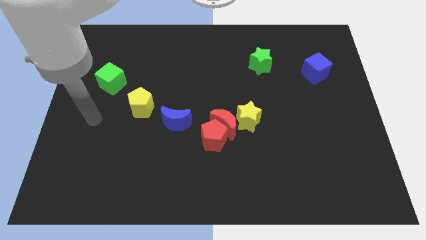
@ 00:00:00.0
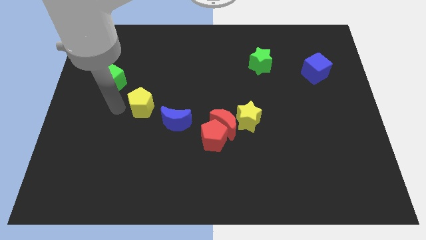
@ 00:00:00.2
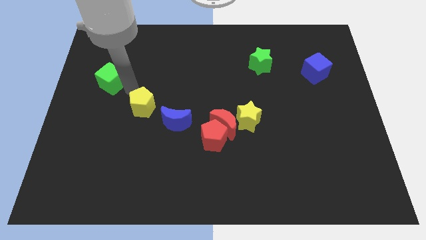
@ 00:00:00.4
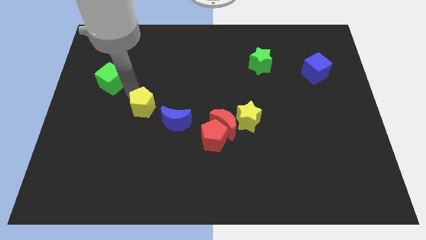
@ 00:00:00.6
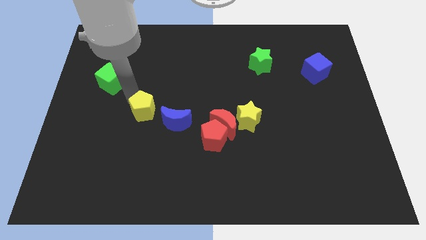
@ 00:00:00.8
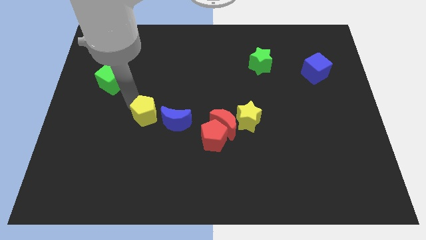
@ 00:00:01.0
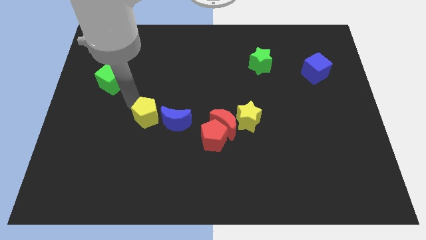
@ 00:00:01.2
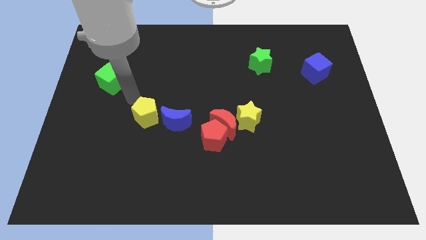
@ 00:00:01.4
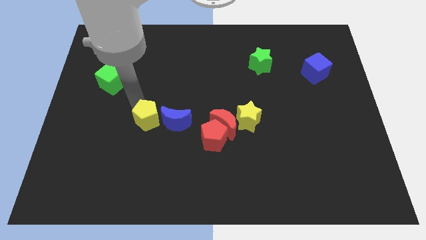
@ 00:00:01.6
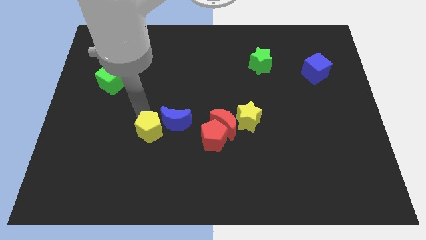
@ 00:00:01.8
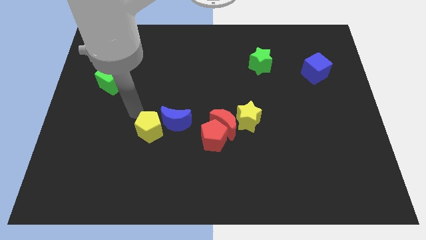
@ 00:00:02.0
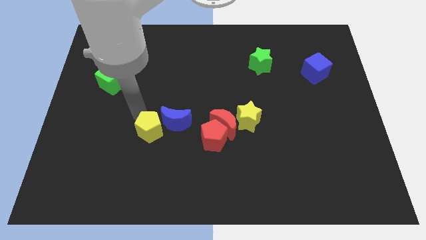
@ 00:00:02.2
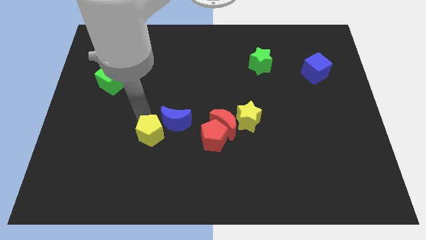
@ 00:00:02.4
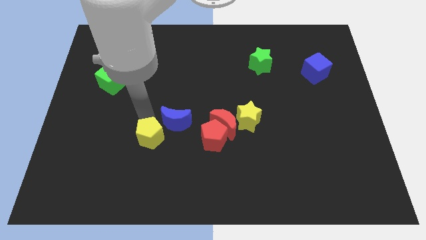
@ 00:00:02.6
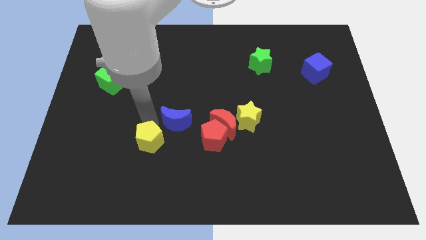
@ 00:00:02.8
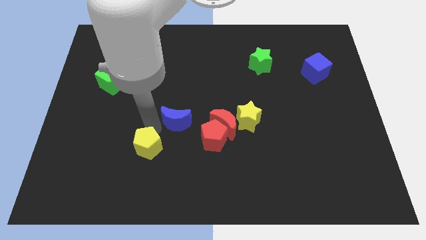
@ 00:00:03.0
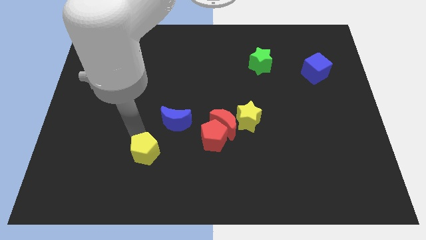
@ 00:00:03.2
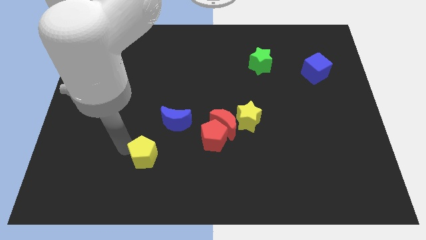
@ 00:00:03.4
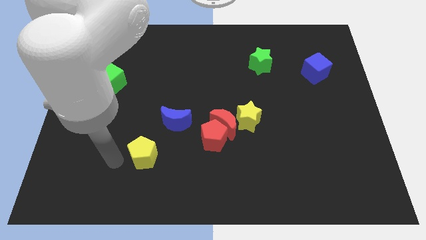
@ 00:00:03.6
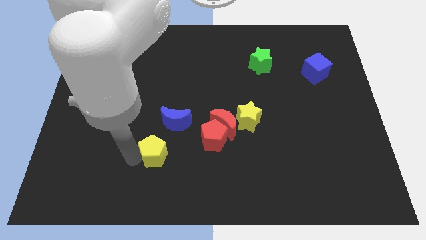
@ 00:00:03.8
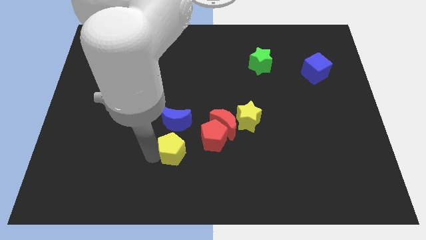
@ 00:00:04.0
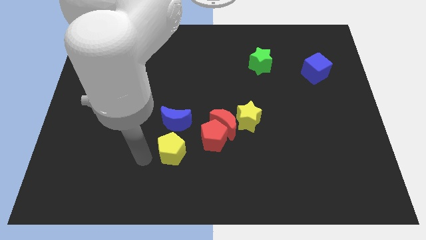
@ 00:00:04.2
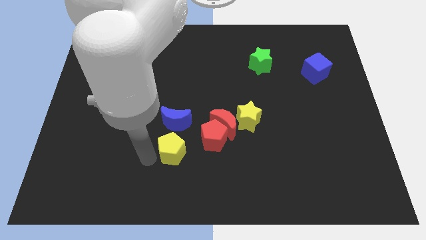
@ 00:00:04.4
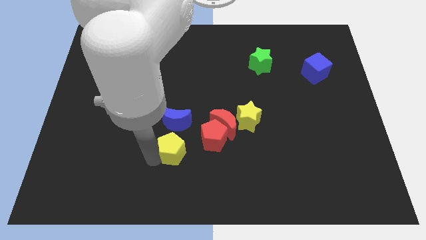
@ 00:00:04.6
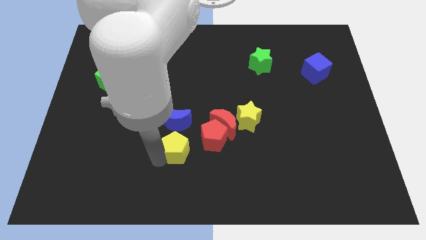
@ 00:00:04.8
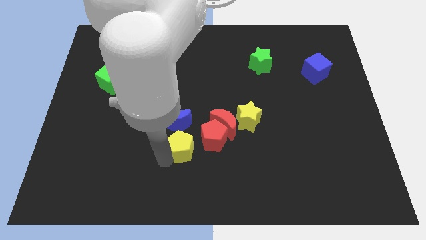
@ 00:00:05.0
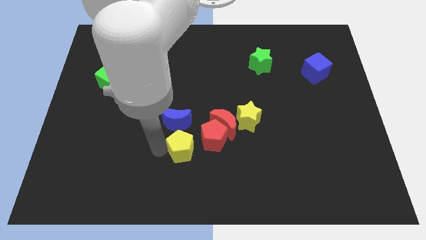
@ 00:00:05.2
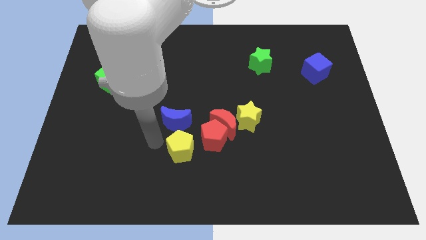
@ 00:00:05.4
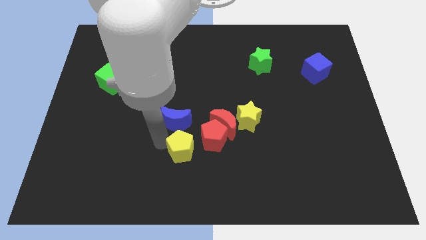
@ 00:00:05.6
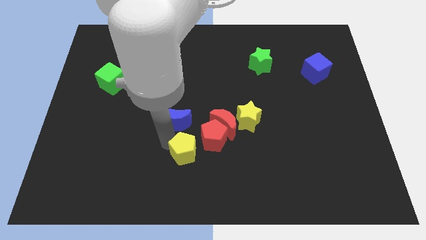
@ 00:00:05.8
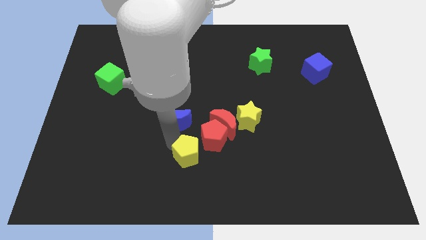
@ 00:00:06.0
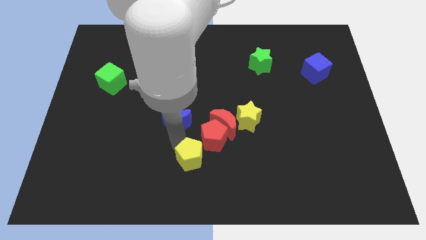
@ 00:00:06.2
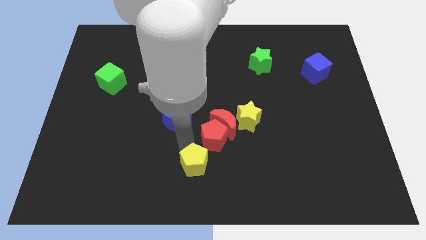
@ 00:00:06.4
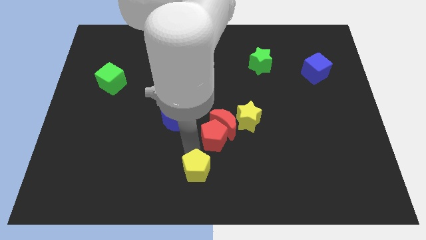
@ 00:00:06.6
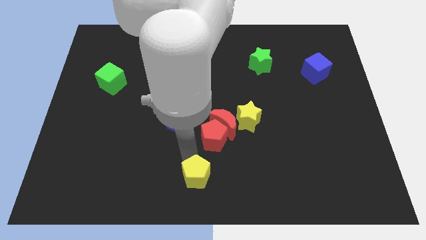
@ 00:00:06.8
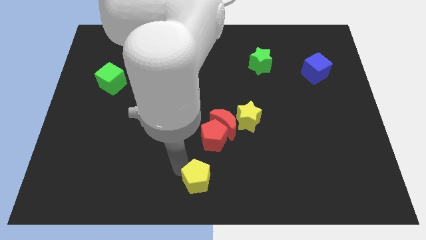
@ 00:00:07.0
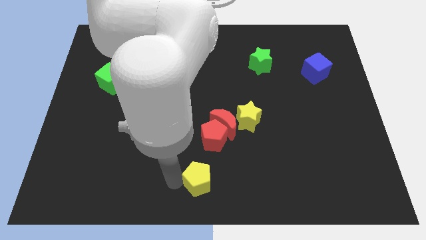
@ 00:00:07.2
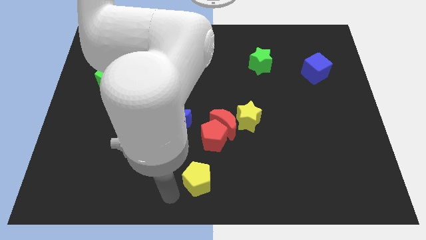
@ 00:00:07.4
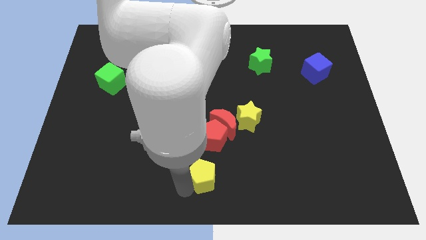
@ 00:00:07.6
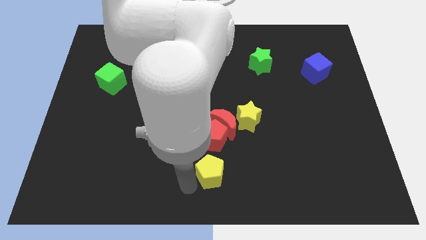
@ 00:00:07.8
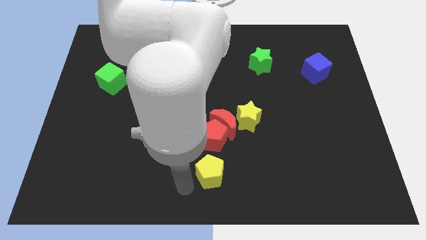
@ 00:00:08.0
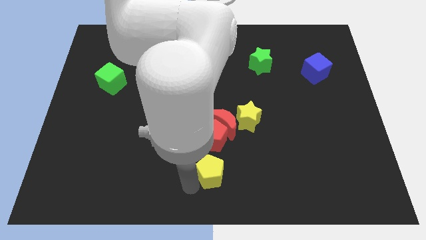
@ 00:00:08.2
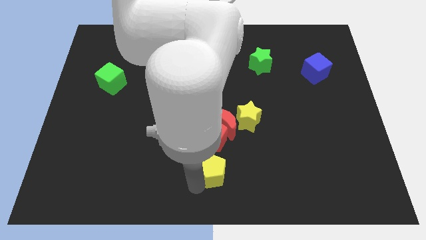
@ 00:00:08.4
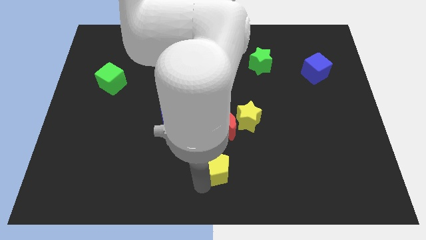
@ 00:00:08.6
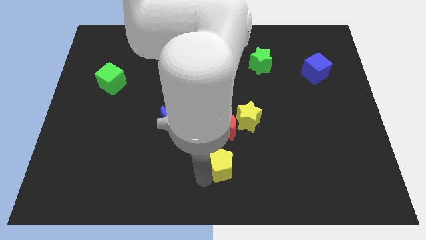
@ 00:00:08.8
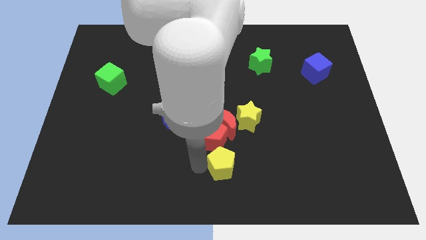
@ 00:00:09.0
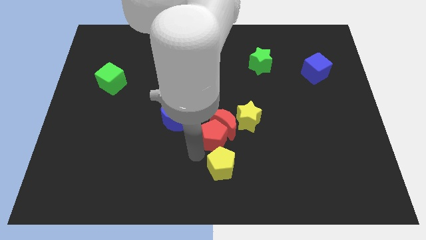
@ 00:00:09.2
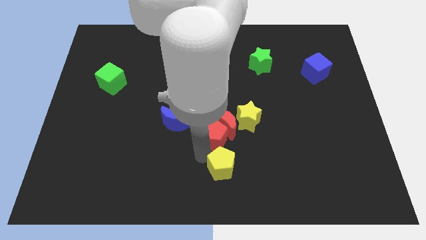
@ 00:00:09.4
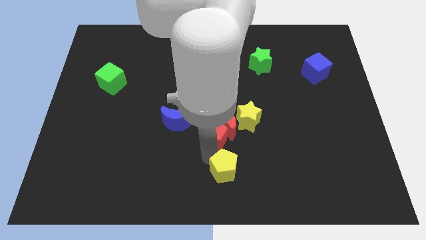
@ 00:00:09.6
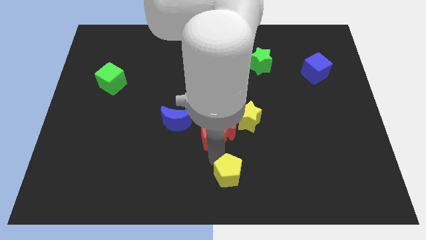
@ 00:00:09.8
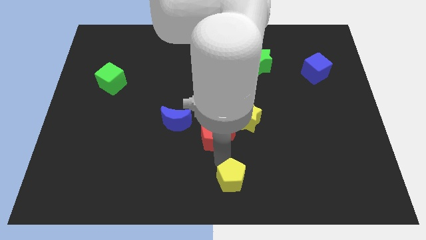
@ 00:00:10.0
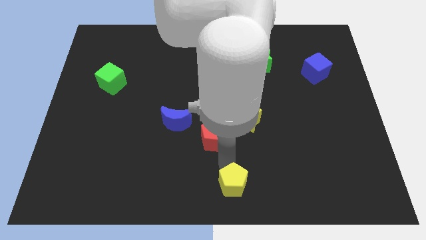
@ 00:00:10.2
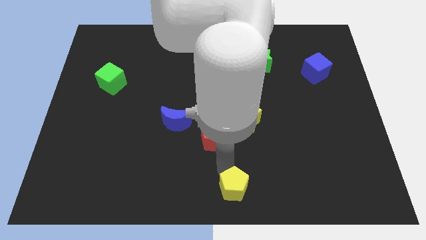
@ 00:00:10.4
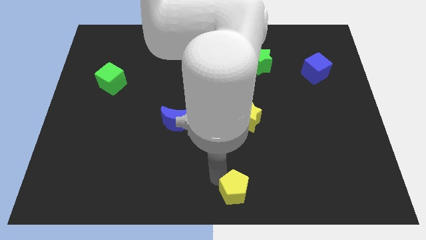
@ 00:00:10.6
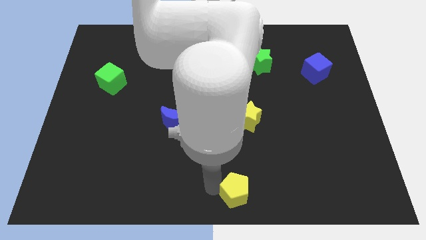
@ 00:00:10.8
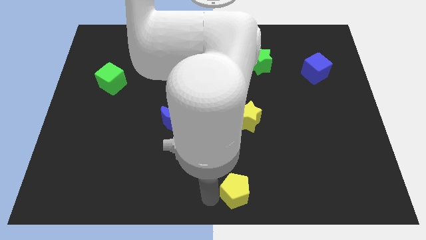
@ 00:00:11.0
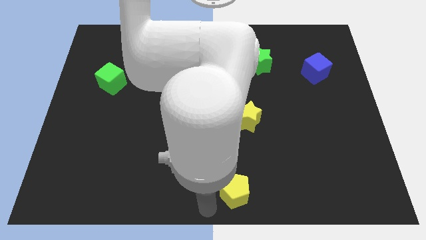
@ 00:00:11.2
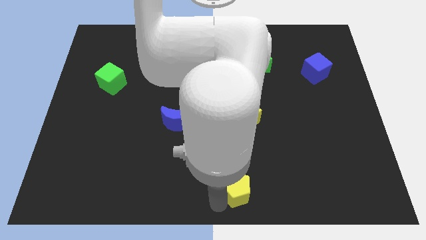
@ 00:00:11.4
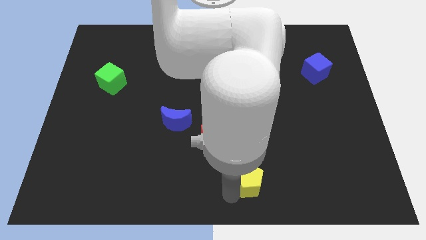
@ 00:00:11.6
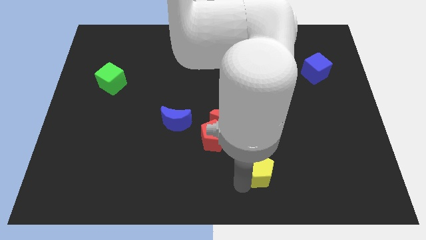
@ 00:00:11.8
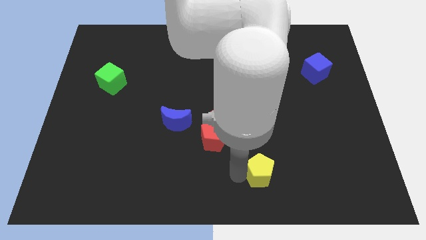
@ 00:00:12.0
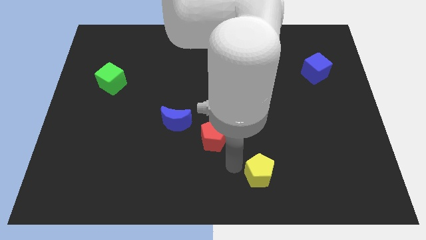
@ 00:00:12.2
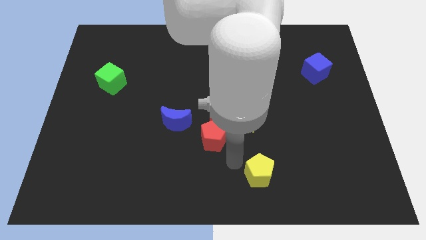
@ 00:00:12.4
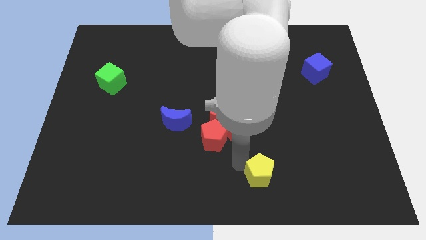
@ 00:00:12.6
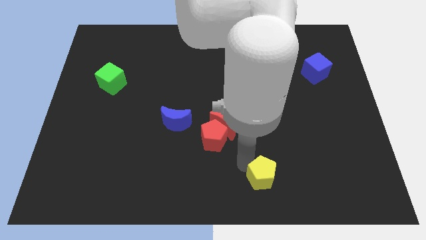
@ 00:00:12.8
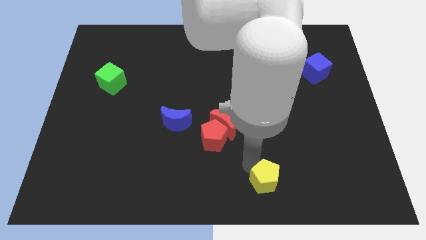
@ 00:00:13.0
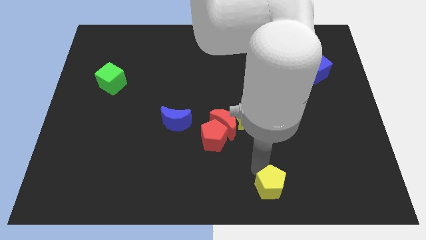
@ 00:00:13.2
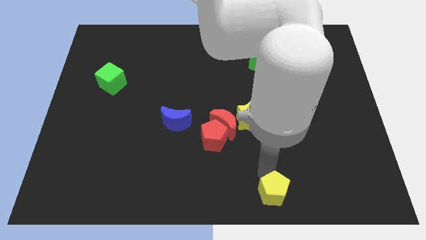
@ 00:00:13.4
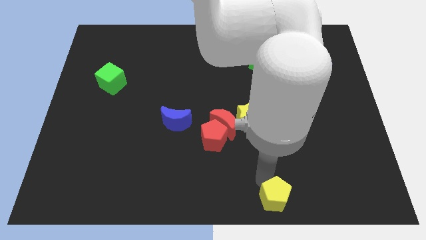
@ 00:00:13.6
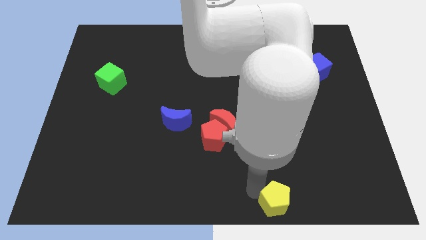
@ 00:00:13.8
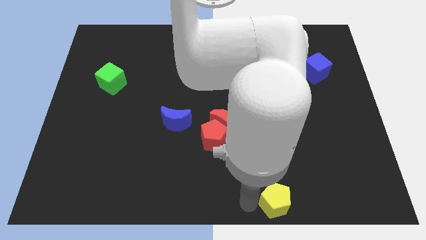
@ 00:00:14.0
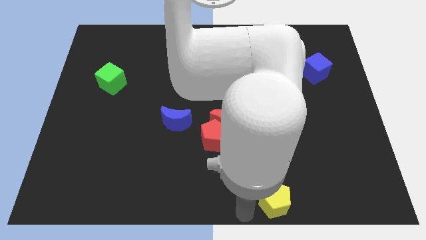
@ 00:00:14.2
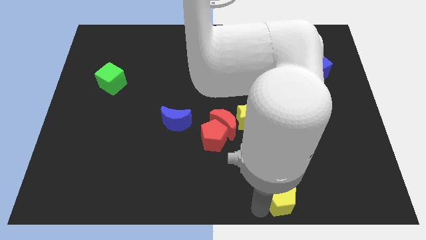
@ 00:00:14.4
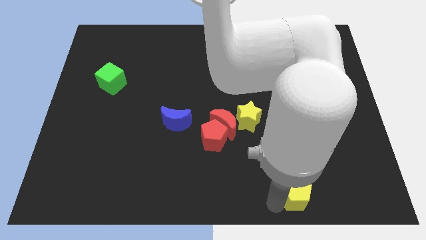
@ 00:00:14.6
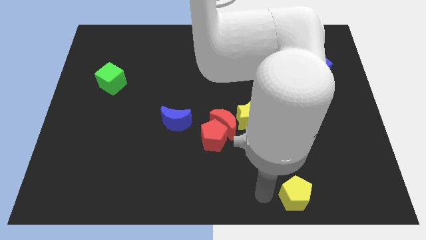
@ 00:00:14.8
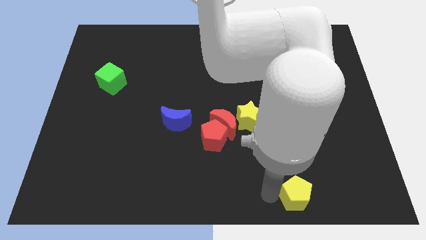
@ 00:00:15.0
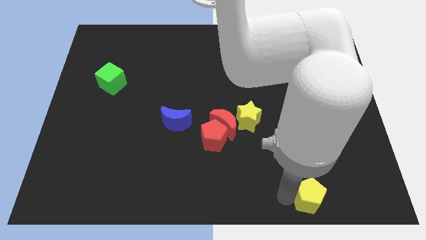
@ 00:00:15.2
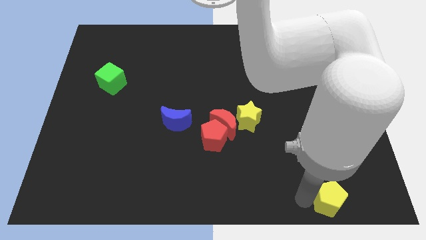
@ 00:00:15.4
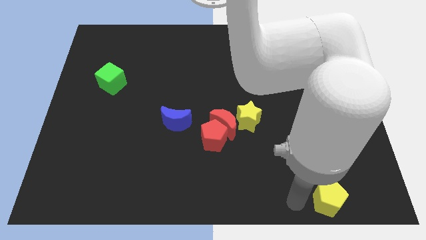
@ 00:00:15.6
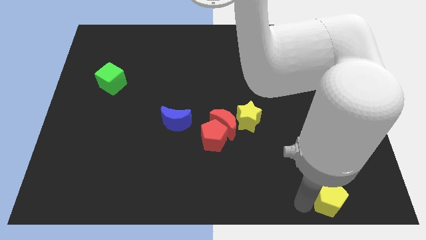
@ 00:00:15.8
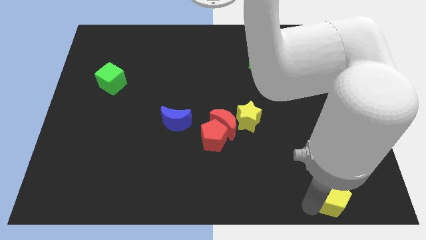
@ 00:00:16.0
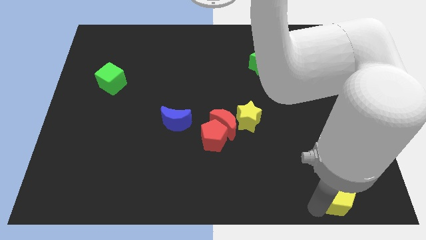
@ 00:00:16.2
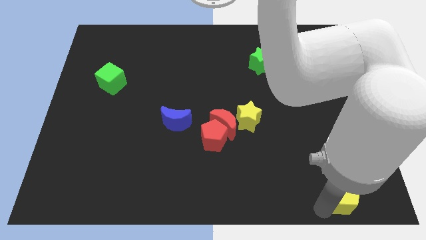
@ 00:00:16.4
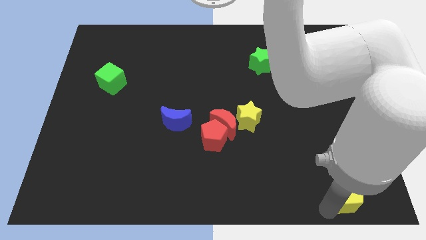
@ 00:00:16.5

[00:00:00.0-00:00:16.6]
put the yellow pentagon to the bottom right of the board
